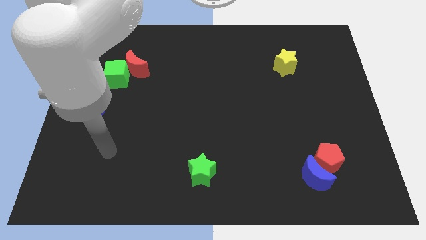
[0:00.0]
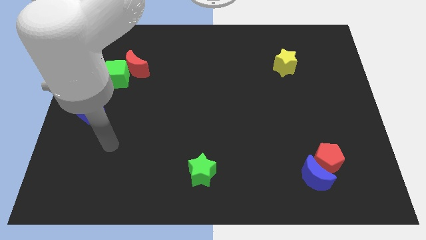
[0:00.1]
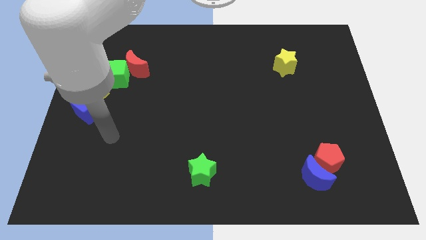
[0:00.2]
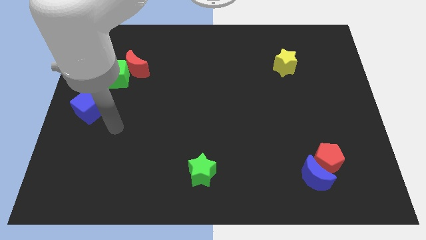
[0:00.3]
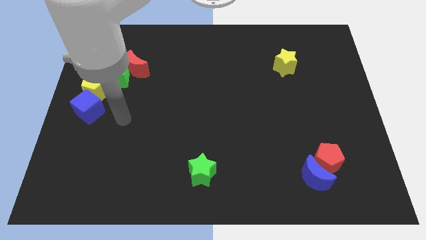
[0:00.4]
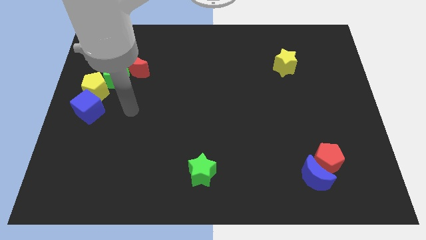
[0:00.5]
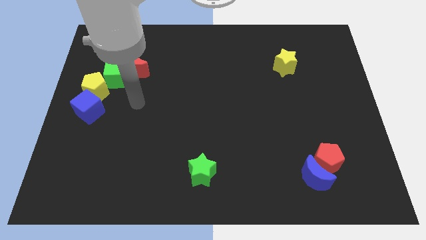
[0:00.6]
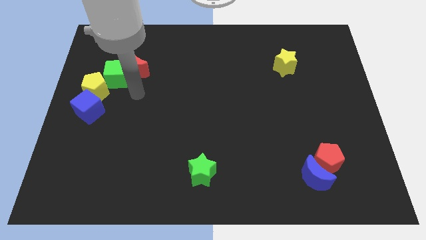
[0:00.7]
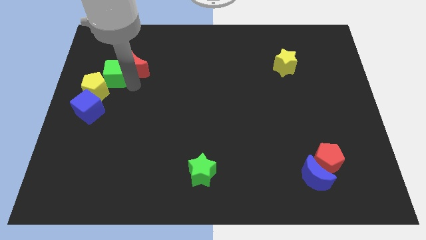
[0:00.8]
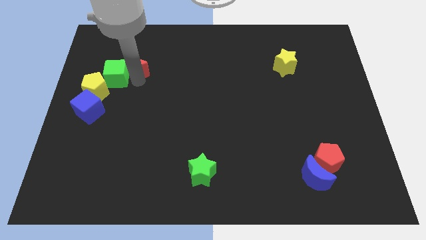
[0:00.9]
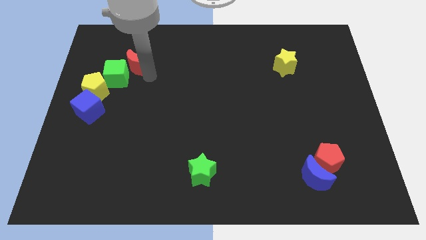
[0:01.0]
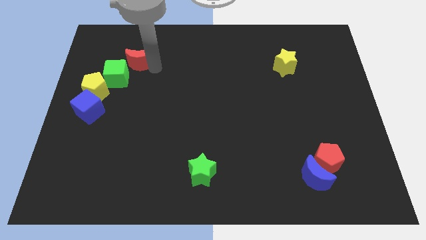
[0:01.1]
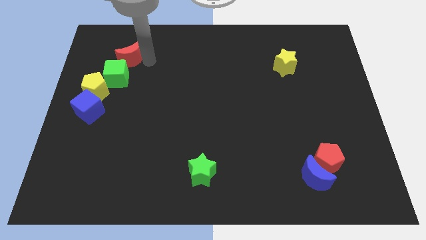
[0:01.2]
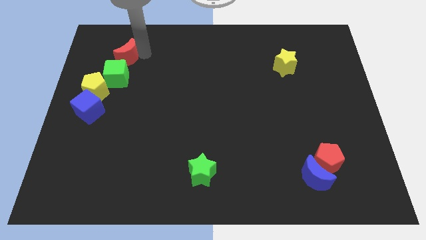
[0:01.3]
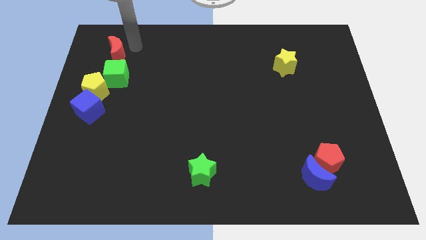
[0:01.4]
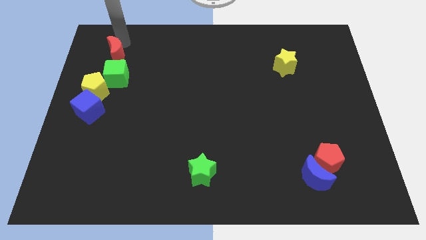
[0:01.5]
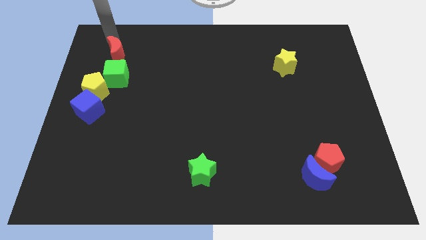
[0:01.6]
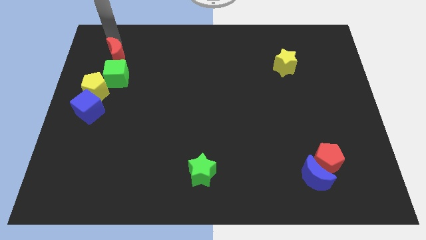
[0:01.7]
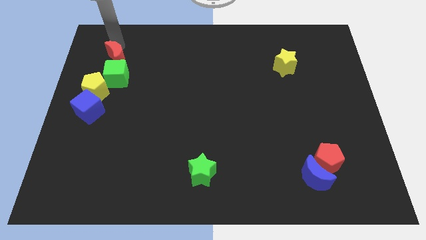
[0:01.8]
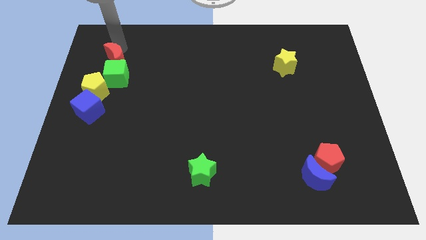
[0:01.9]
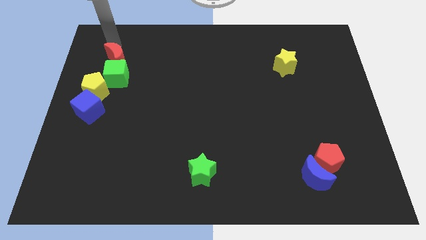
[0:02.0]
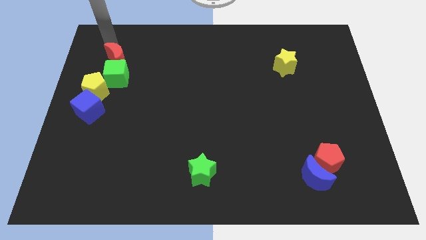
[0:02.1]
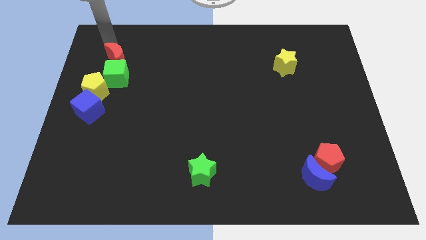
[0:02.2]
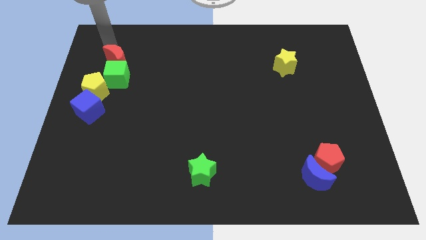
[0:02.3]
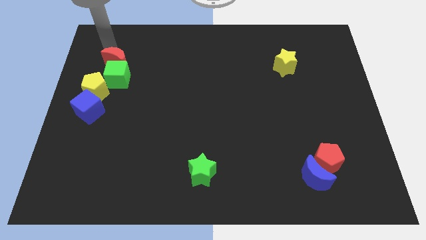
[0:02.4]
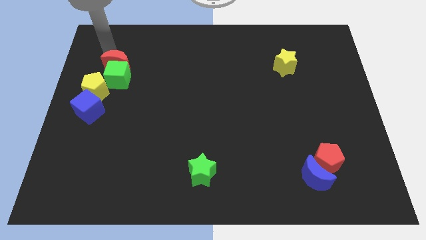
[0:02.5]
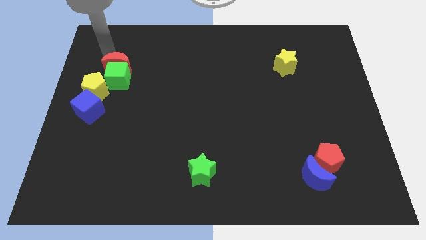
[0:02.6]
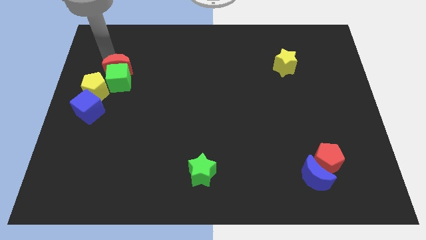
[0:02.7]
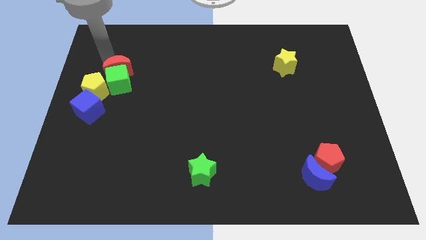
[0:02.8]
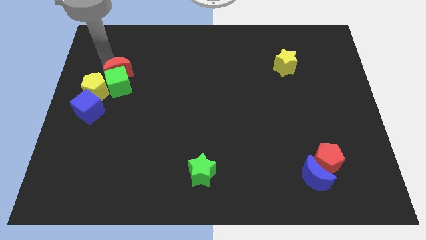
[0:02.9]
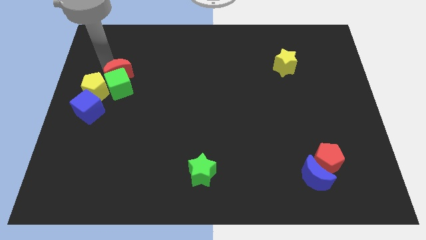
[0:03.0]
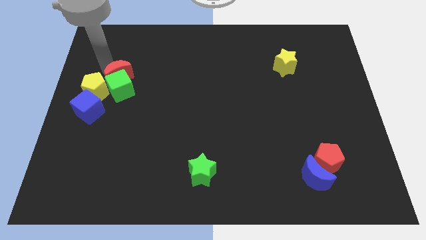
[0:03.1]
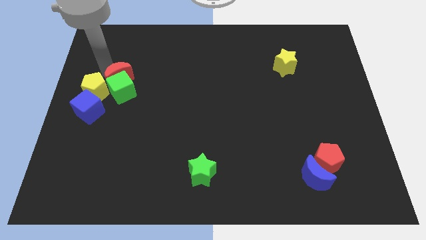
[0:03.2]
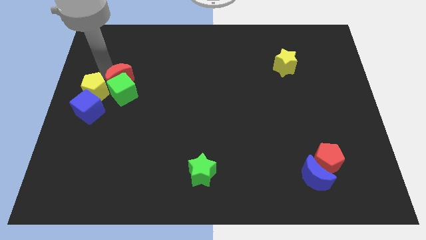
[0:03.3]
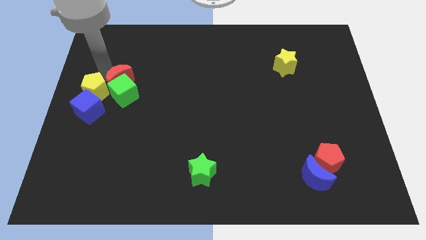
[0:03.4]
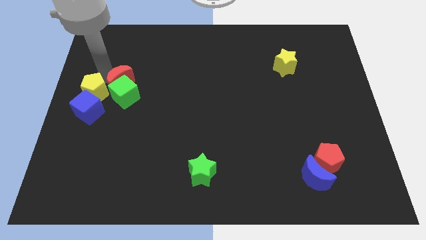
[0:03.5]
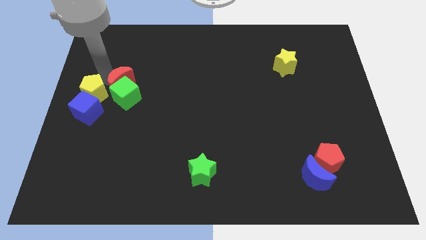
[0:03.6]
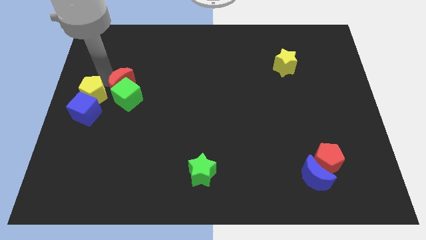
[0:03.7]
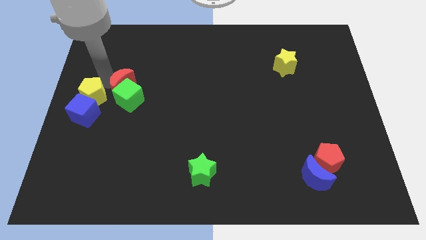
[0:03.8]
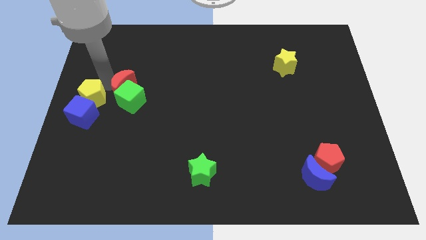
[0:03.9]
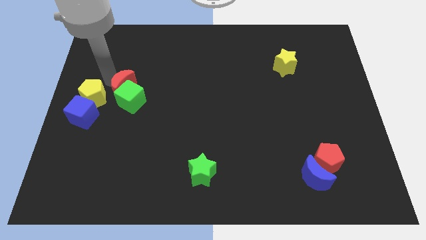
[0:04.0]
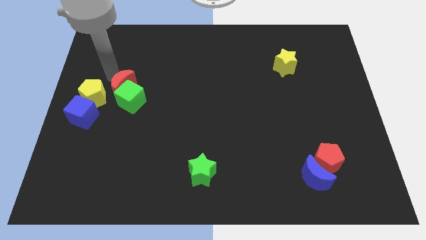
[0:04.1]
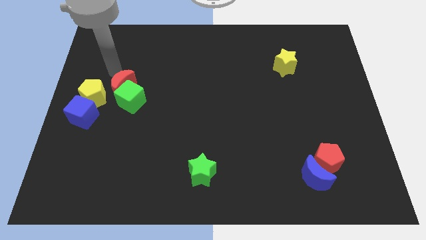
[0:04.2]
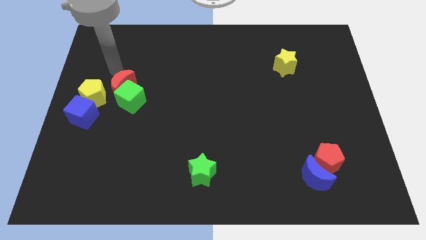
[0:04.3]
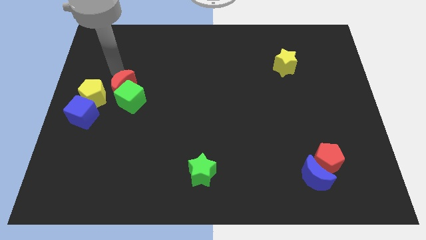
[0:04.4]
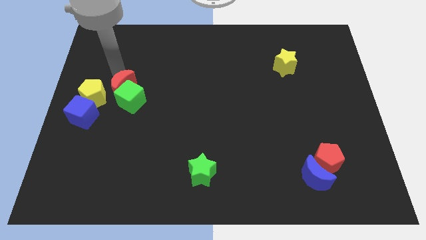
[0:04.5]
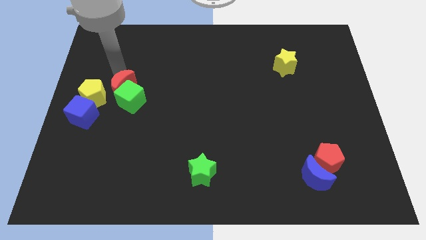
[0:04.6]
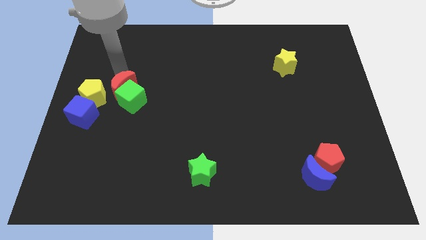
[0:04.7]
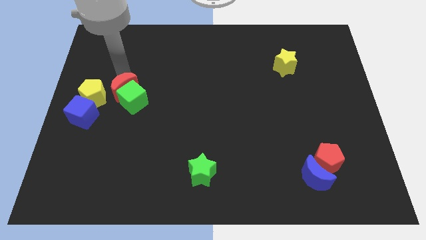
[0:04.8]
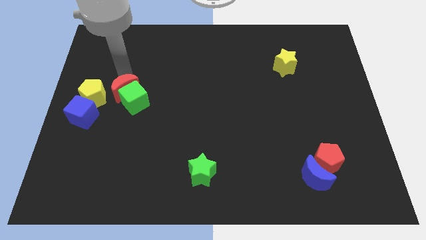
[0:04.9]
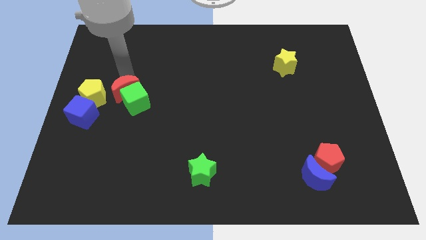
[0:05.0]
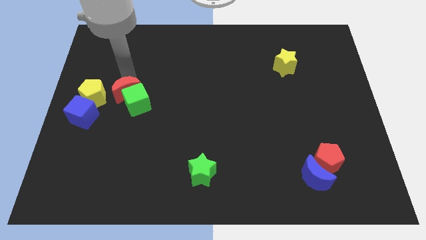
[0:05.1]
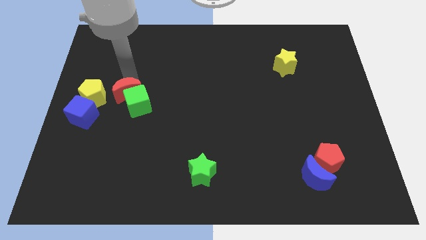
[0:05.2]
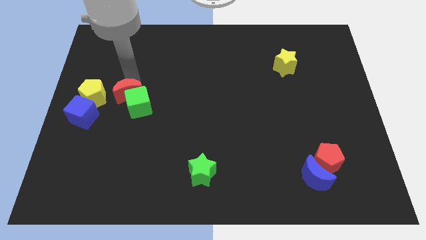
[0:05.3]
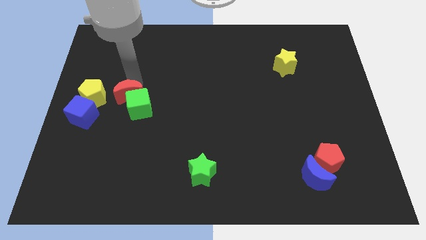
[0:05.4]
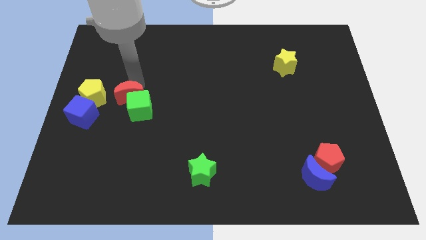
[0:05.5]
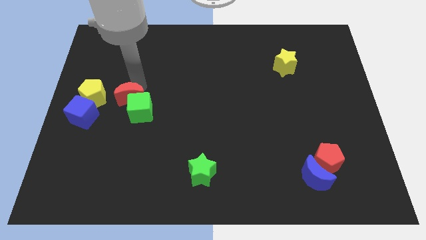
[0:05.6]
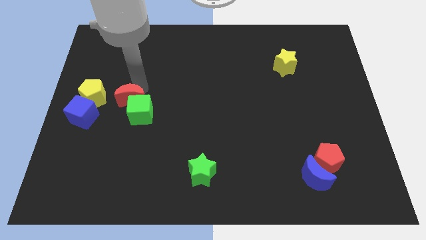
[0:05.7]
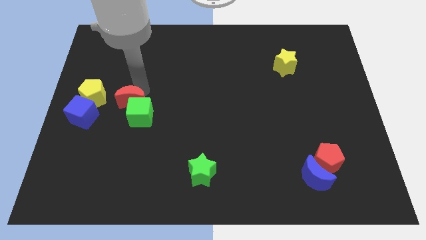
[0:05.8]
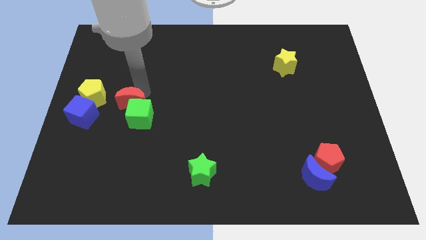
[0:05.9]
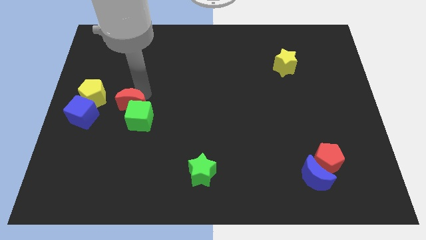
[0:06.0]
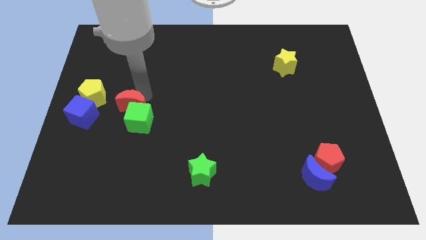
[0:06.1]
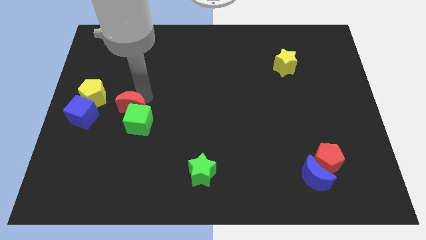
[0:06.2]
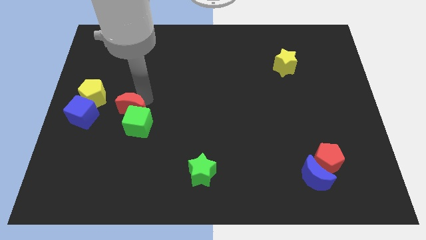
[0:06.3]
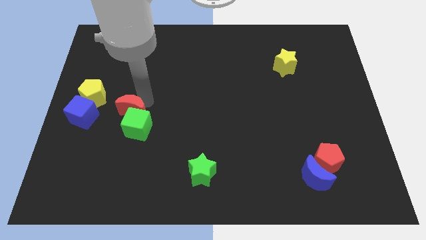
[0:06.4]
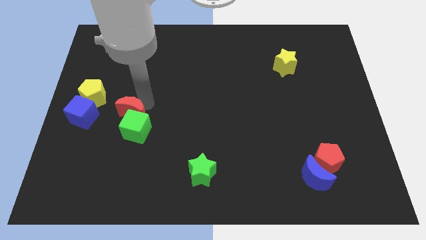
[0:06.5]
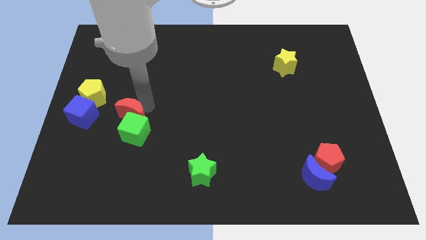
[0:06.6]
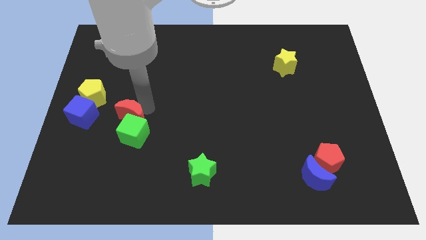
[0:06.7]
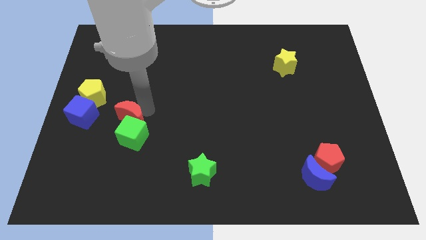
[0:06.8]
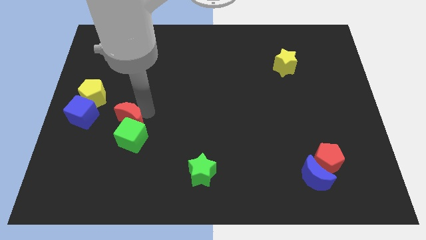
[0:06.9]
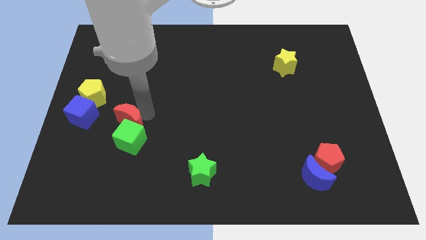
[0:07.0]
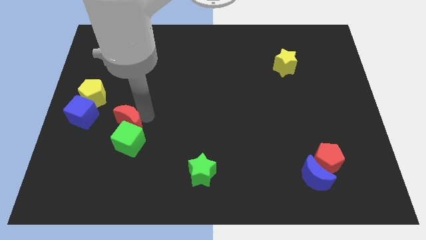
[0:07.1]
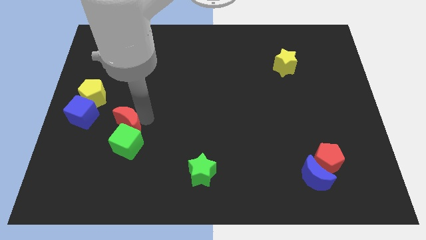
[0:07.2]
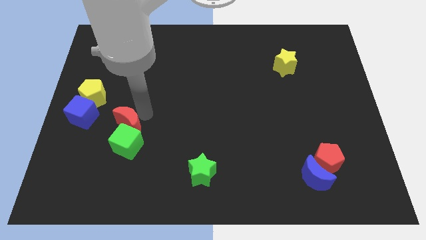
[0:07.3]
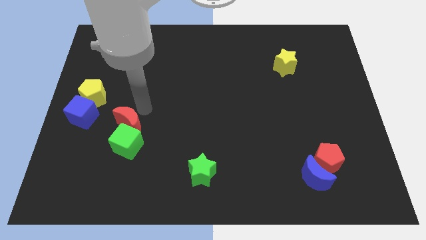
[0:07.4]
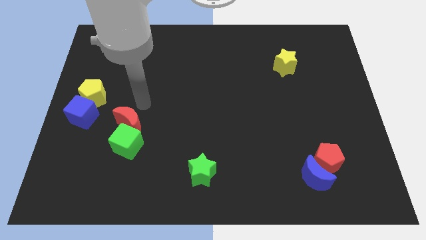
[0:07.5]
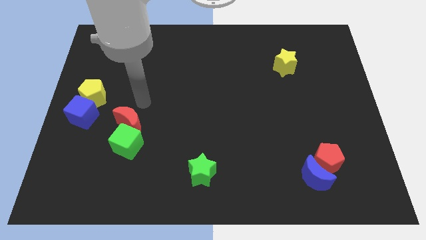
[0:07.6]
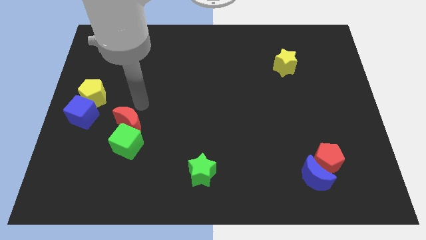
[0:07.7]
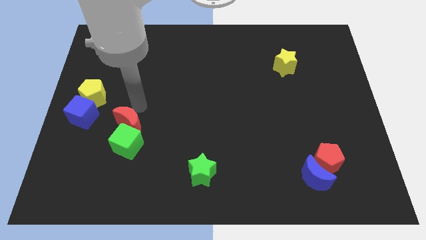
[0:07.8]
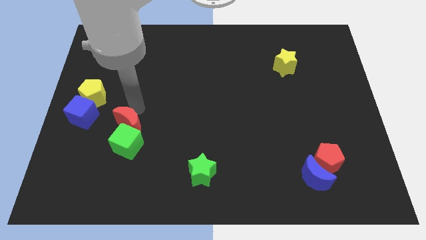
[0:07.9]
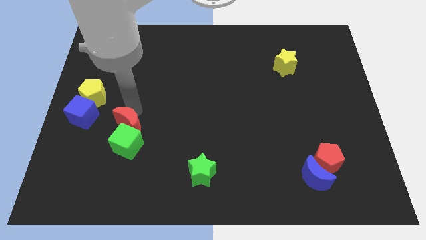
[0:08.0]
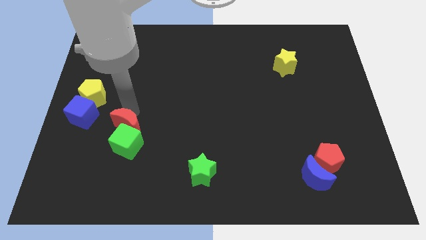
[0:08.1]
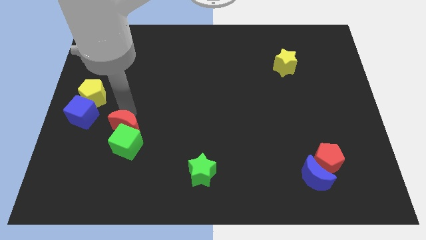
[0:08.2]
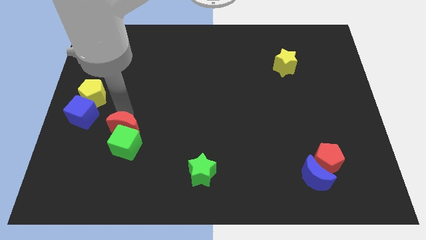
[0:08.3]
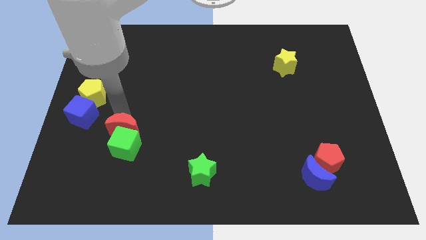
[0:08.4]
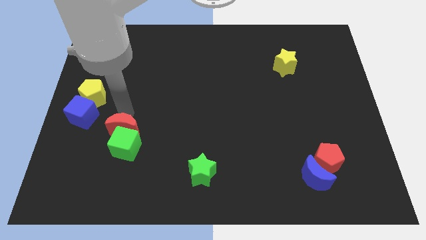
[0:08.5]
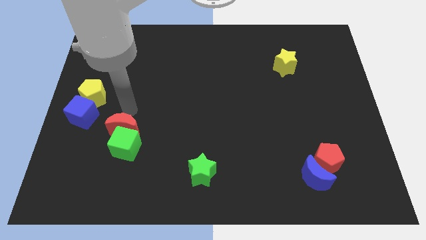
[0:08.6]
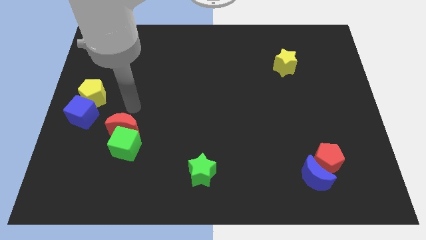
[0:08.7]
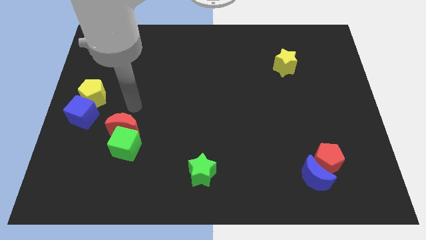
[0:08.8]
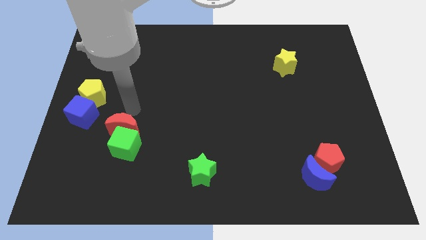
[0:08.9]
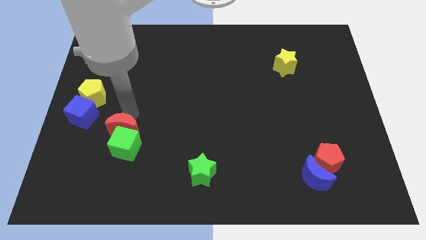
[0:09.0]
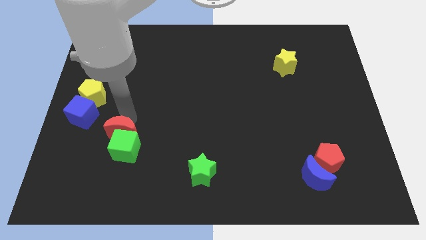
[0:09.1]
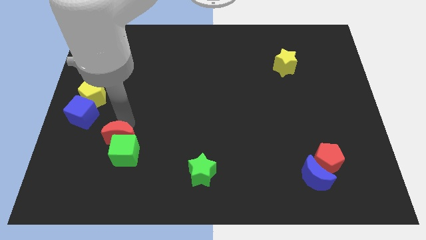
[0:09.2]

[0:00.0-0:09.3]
push the red moon downwards
